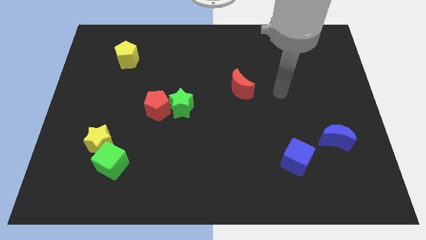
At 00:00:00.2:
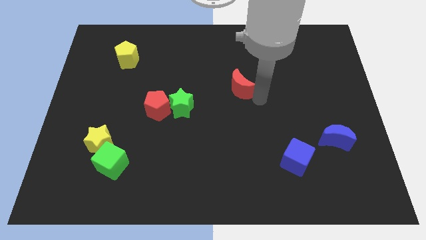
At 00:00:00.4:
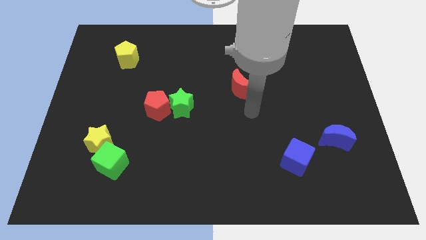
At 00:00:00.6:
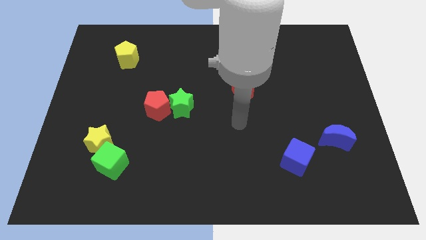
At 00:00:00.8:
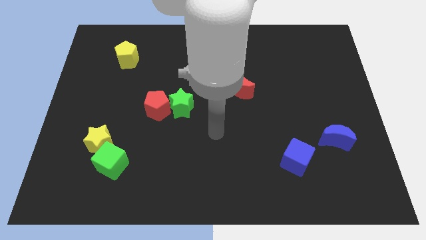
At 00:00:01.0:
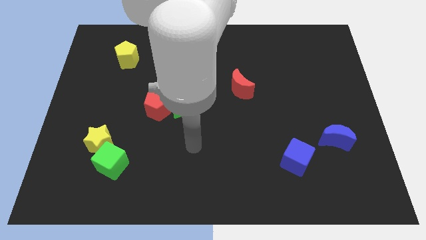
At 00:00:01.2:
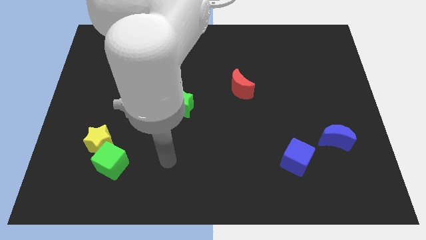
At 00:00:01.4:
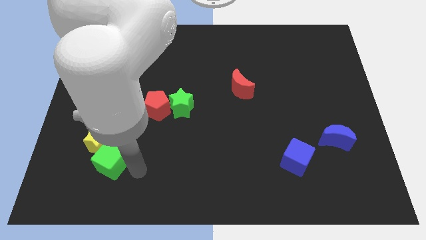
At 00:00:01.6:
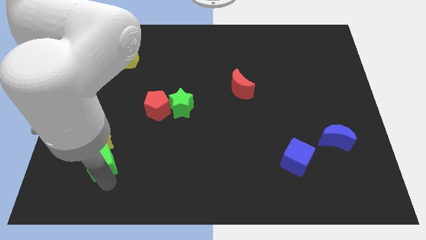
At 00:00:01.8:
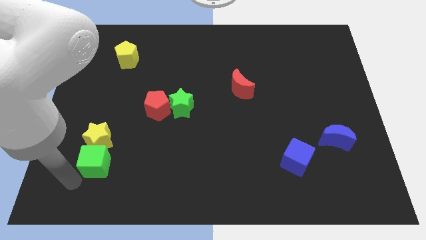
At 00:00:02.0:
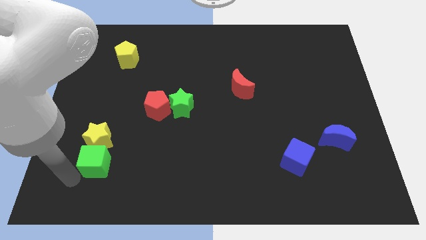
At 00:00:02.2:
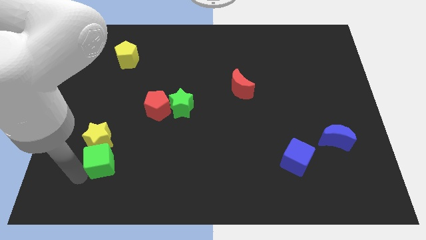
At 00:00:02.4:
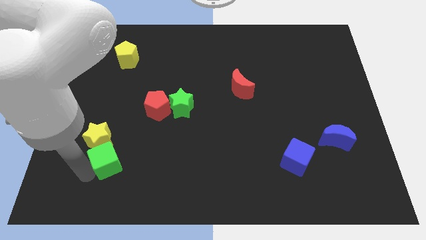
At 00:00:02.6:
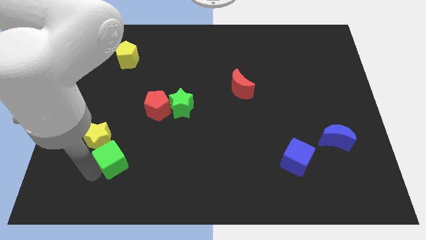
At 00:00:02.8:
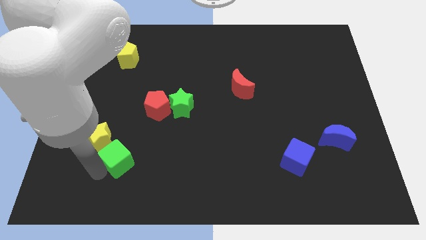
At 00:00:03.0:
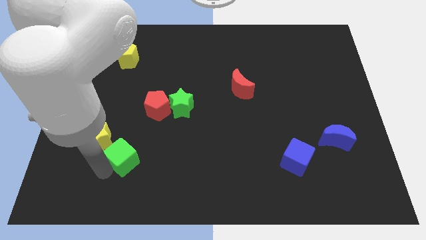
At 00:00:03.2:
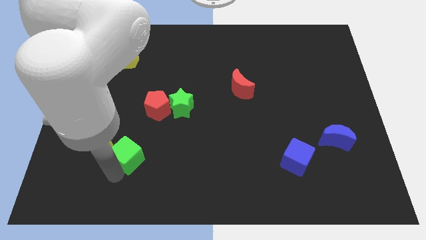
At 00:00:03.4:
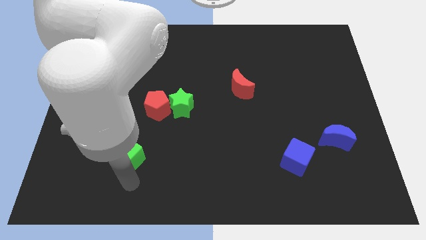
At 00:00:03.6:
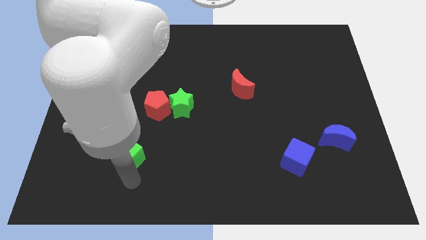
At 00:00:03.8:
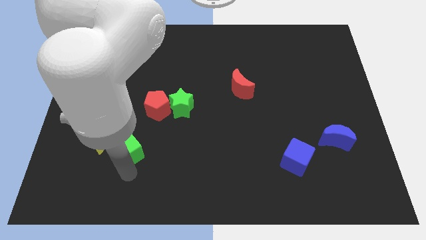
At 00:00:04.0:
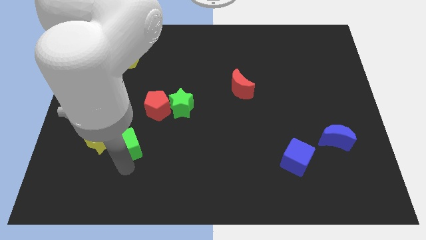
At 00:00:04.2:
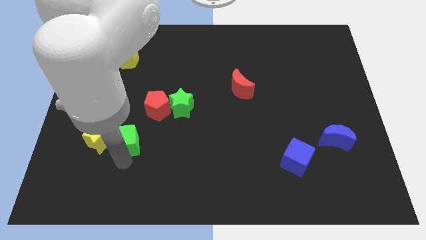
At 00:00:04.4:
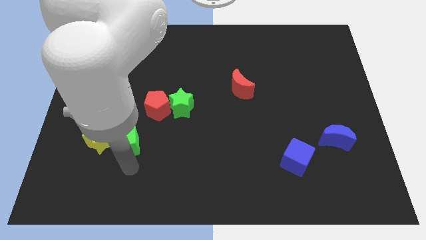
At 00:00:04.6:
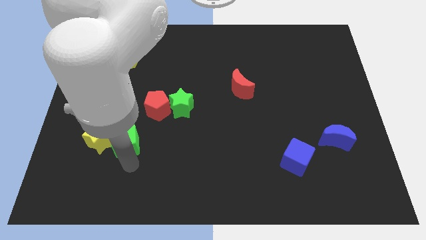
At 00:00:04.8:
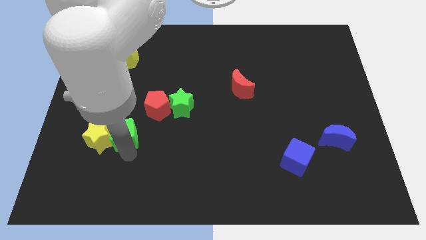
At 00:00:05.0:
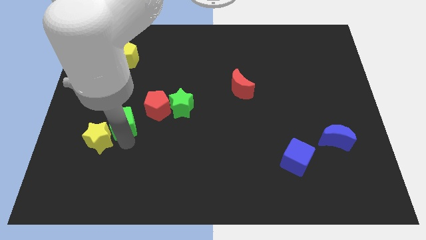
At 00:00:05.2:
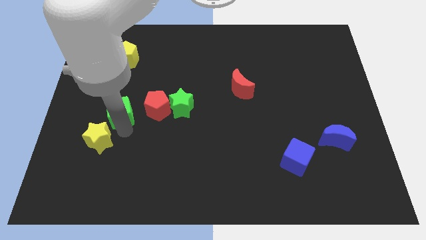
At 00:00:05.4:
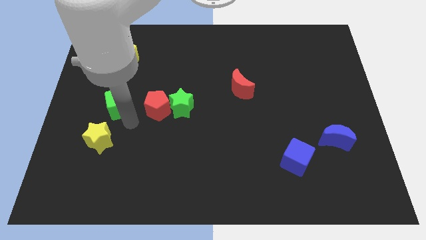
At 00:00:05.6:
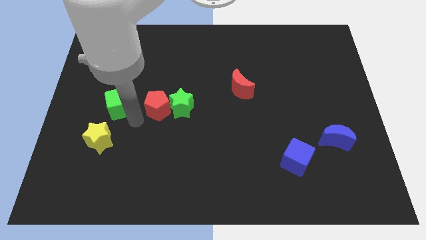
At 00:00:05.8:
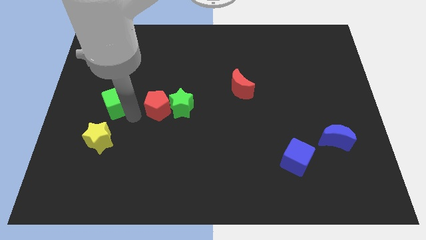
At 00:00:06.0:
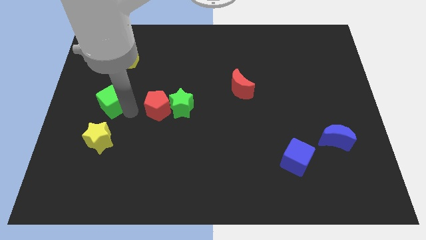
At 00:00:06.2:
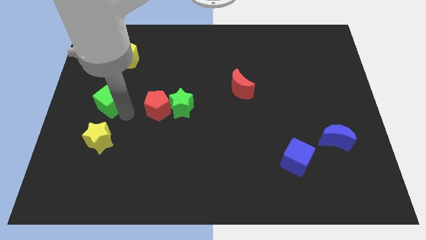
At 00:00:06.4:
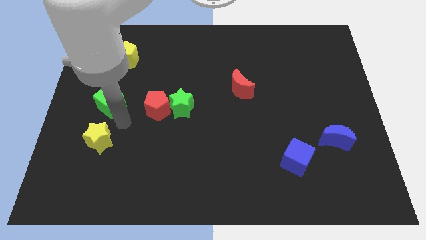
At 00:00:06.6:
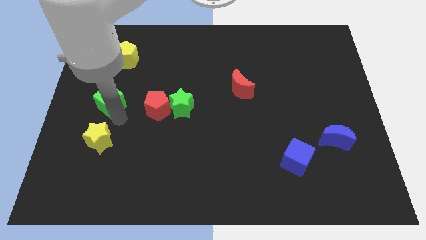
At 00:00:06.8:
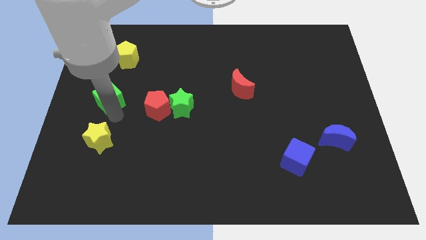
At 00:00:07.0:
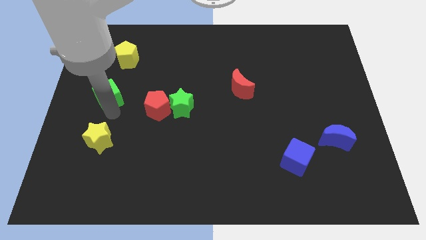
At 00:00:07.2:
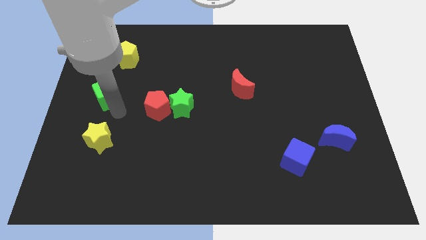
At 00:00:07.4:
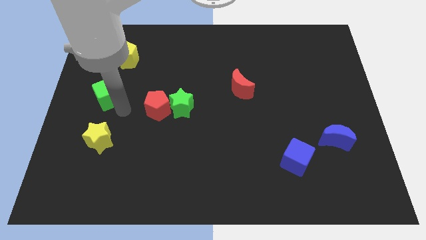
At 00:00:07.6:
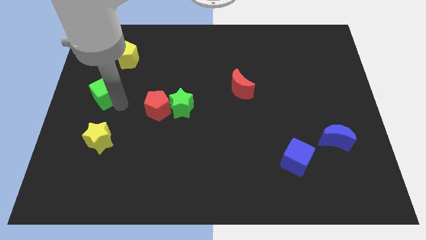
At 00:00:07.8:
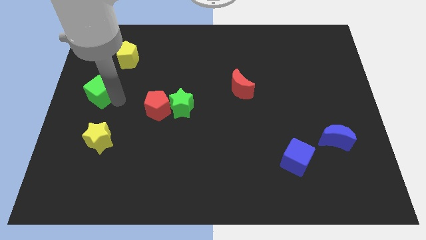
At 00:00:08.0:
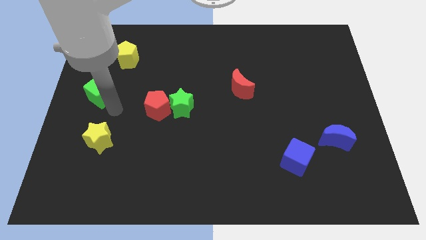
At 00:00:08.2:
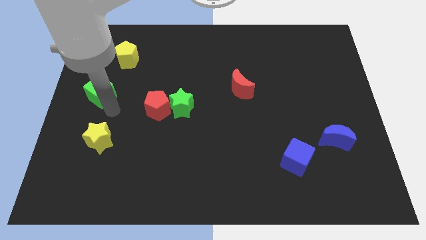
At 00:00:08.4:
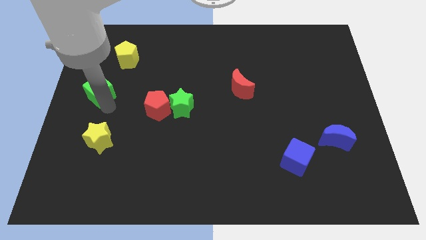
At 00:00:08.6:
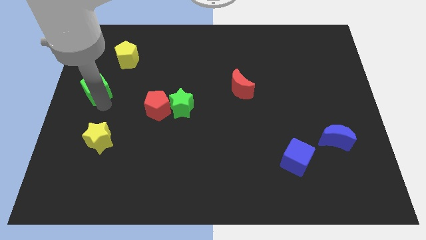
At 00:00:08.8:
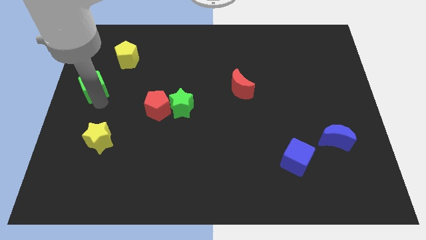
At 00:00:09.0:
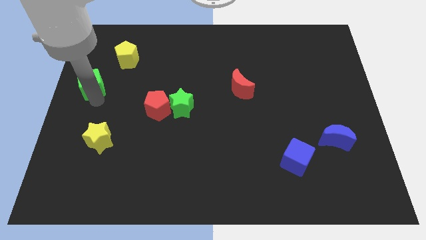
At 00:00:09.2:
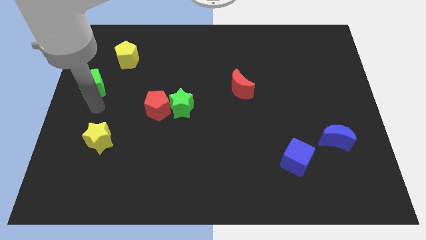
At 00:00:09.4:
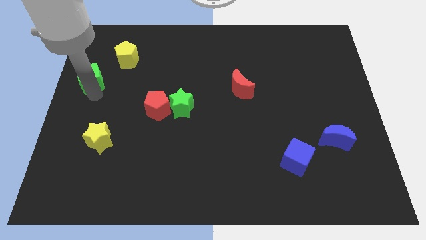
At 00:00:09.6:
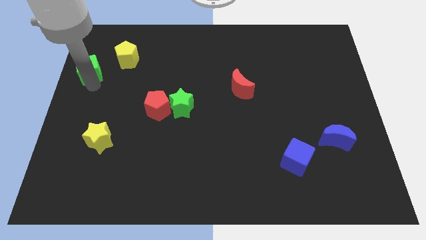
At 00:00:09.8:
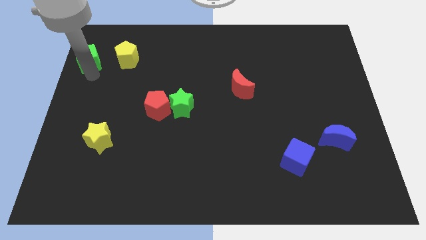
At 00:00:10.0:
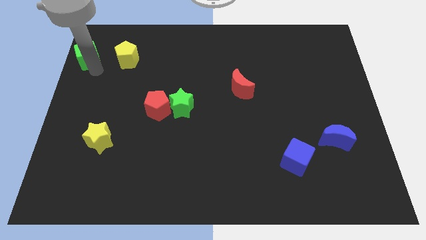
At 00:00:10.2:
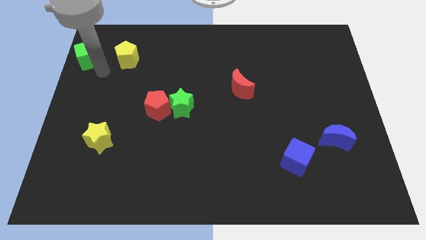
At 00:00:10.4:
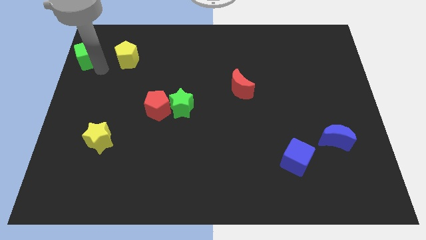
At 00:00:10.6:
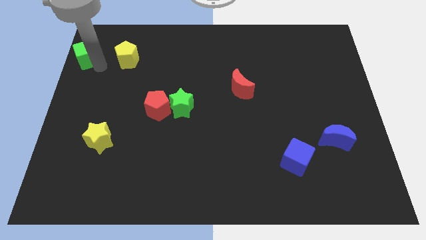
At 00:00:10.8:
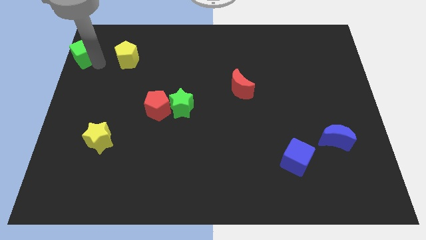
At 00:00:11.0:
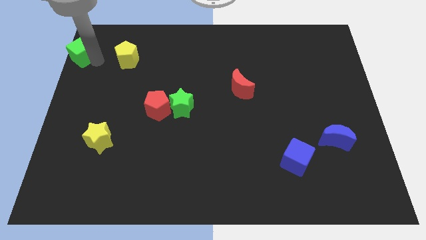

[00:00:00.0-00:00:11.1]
push the green cube to the top left
